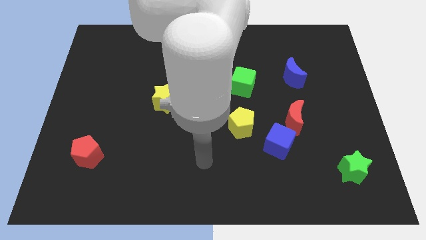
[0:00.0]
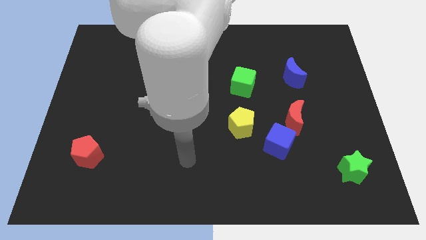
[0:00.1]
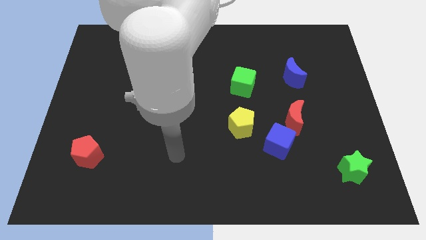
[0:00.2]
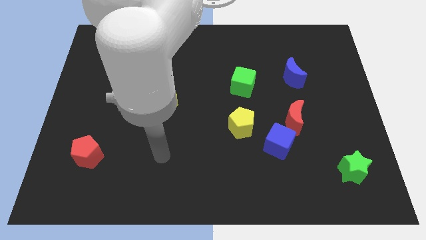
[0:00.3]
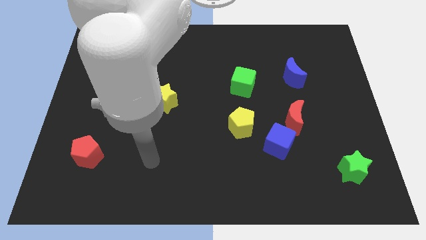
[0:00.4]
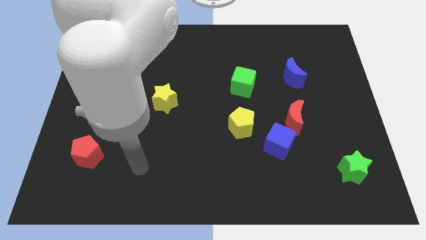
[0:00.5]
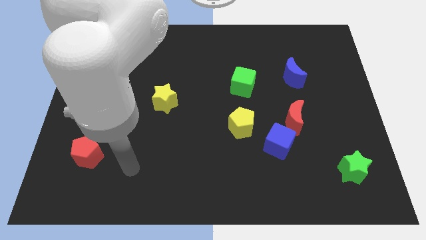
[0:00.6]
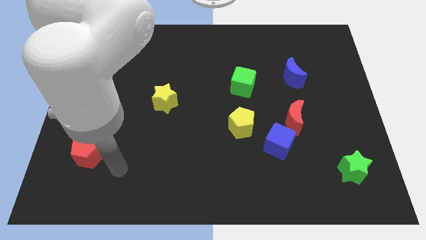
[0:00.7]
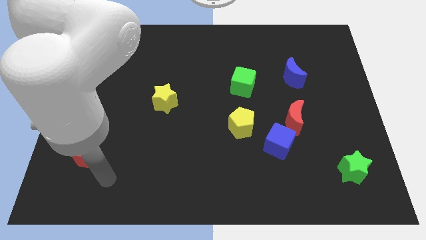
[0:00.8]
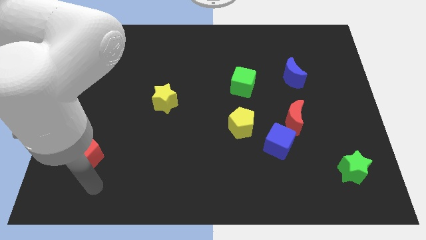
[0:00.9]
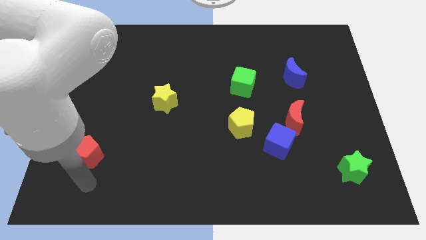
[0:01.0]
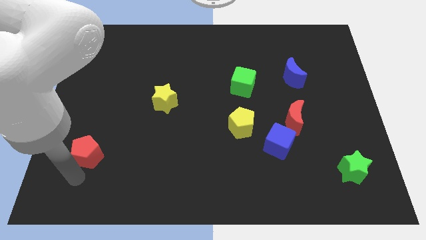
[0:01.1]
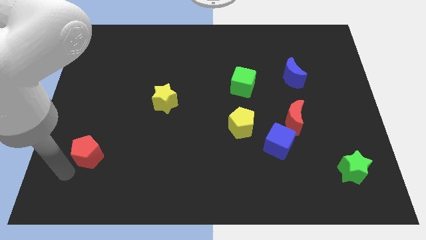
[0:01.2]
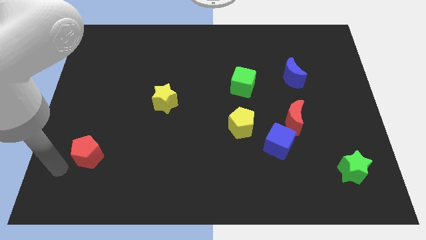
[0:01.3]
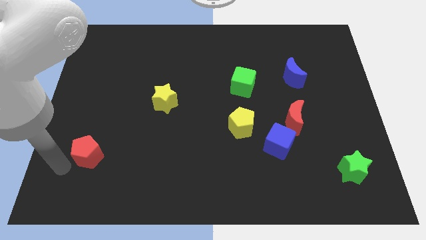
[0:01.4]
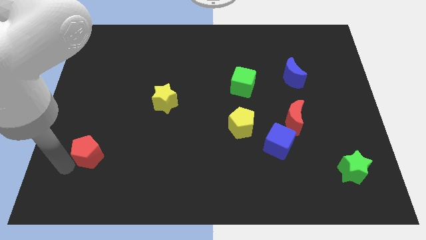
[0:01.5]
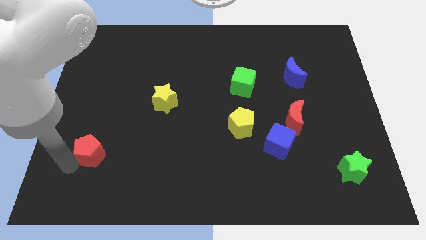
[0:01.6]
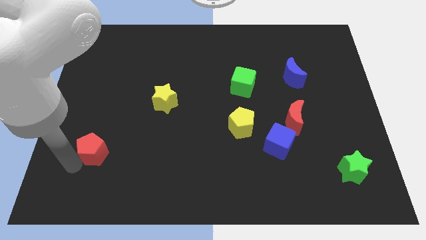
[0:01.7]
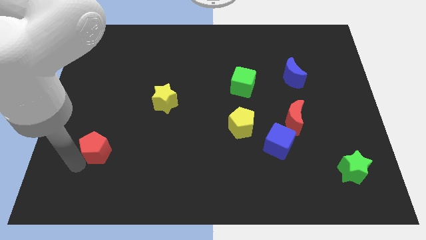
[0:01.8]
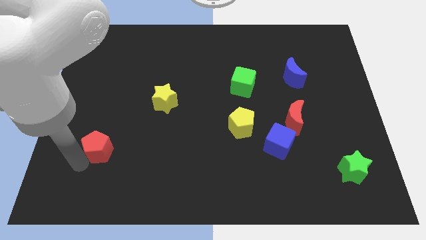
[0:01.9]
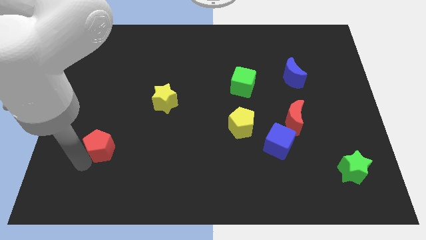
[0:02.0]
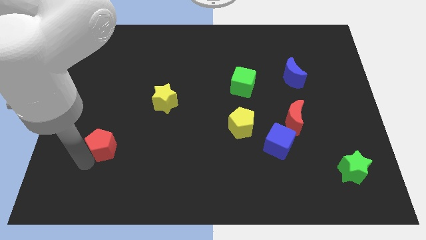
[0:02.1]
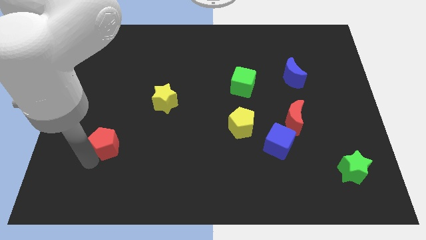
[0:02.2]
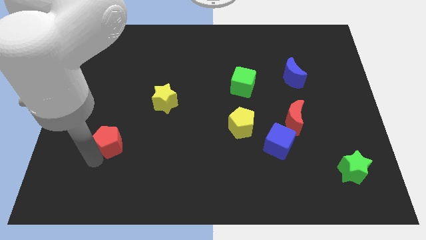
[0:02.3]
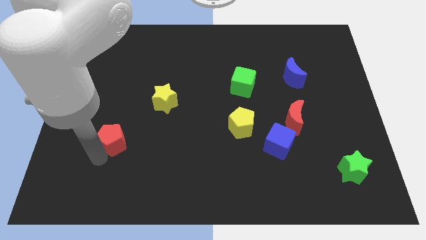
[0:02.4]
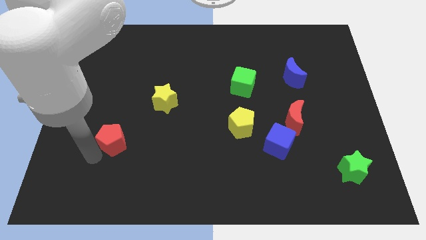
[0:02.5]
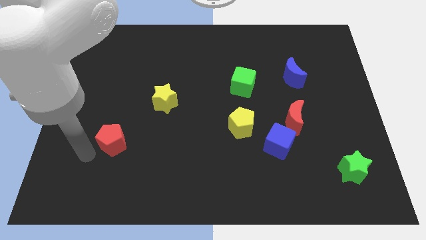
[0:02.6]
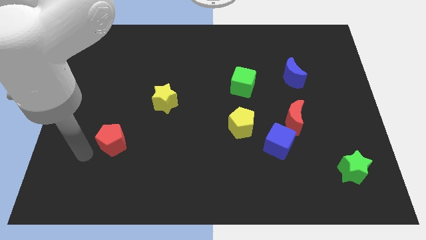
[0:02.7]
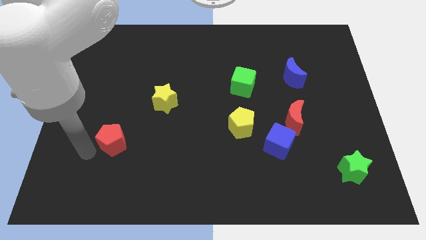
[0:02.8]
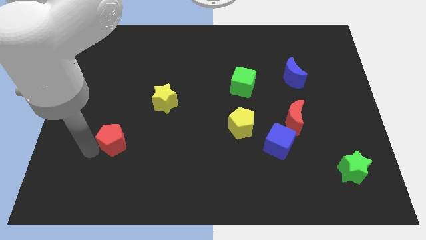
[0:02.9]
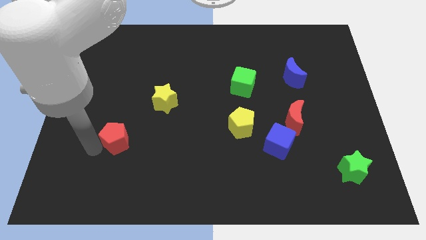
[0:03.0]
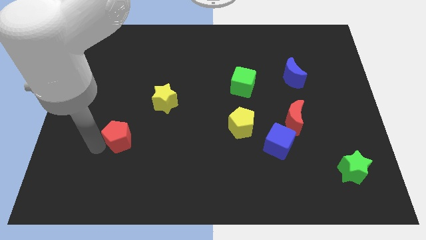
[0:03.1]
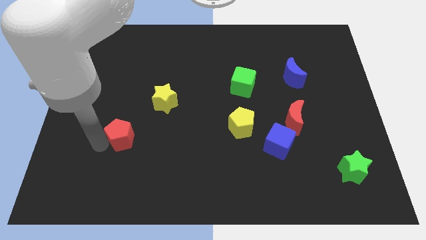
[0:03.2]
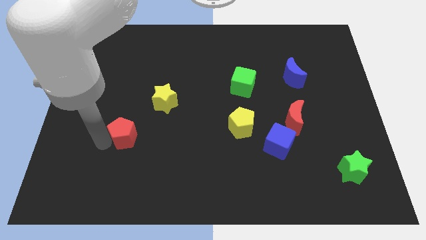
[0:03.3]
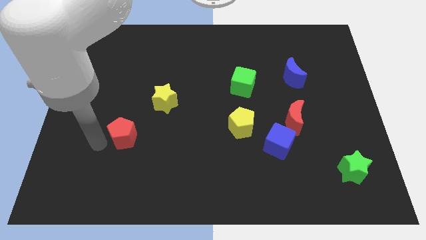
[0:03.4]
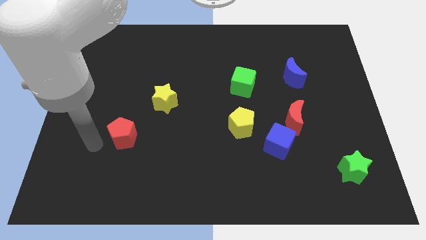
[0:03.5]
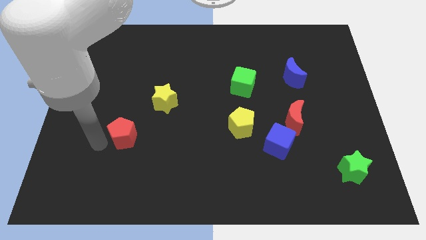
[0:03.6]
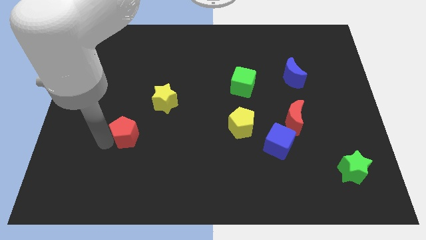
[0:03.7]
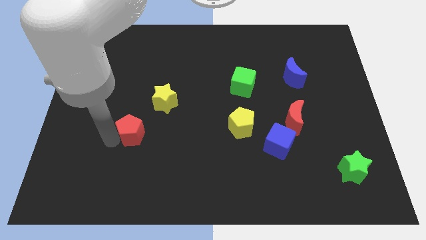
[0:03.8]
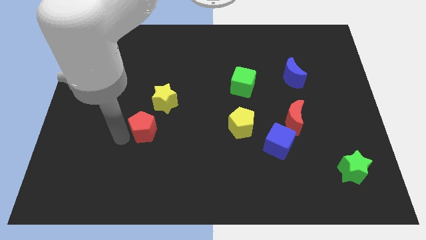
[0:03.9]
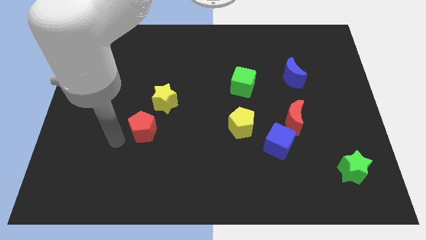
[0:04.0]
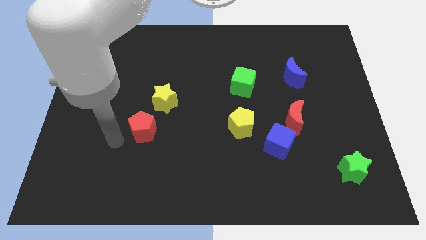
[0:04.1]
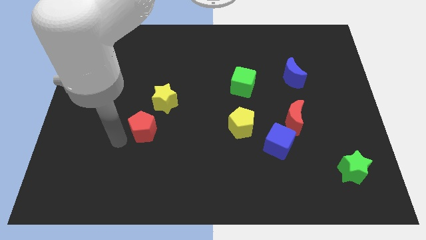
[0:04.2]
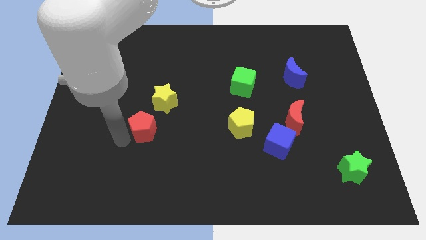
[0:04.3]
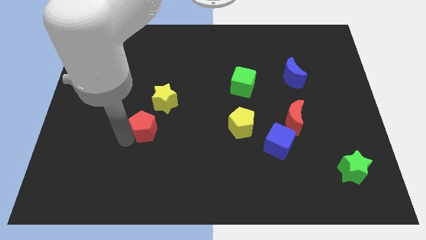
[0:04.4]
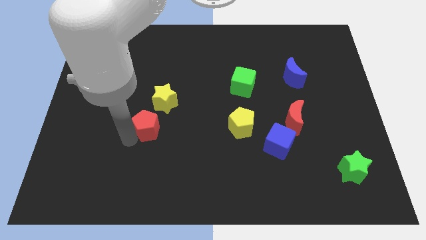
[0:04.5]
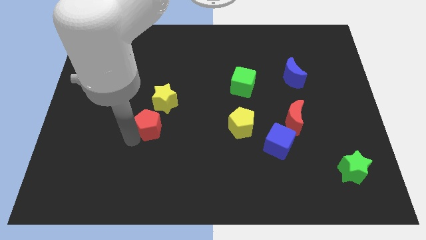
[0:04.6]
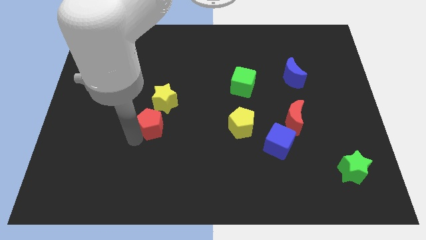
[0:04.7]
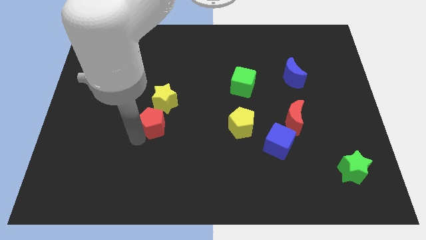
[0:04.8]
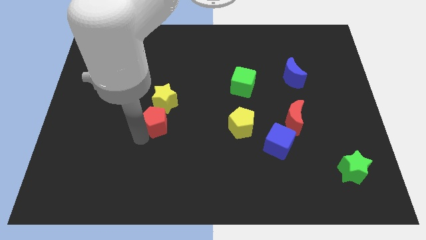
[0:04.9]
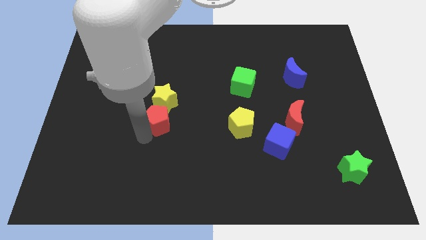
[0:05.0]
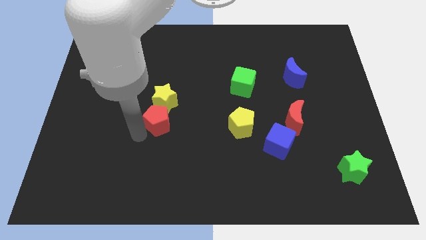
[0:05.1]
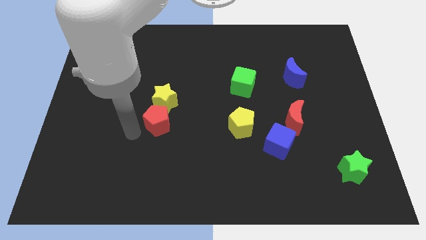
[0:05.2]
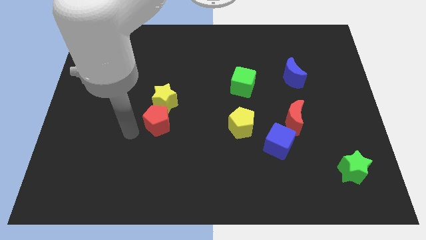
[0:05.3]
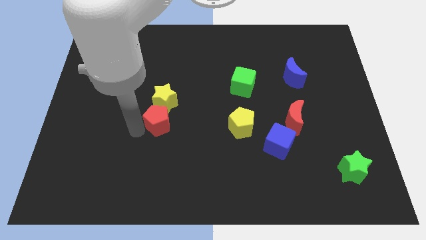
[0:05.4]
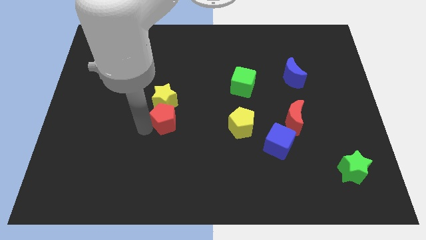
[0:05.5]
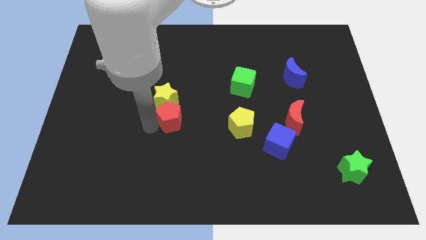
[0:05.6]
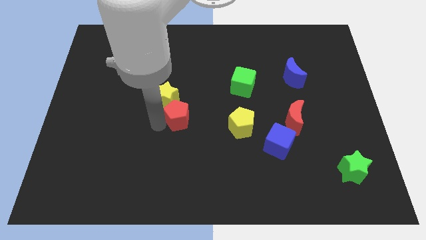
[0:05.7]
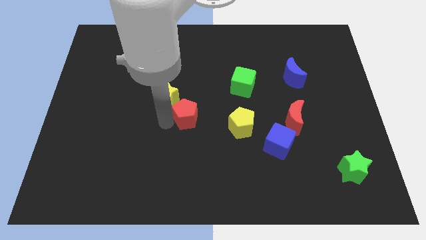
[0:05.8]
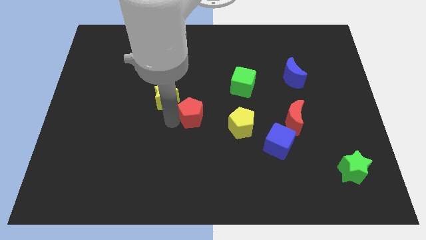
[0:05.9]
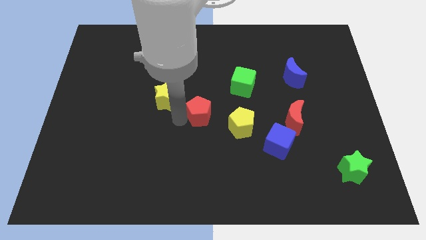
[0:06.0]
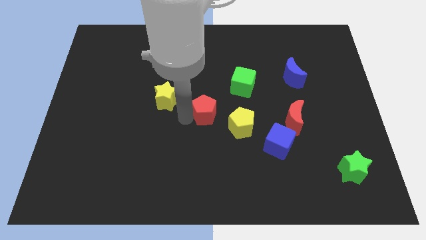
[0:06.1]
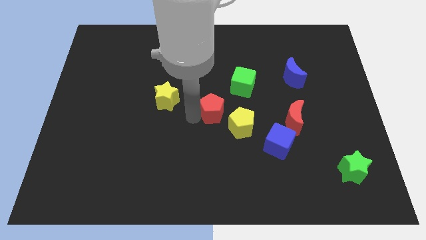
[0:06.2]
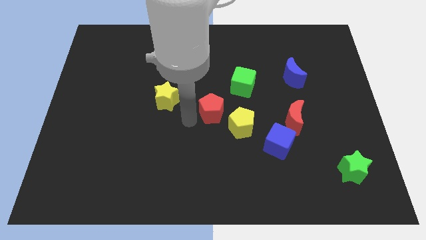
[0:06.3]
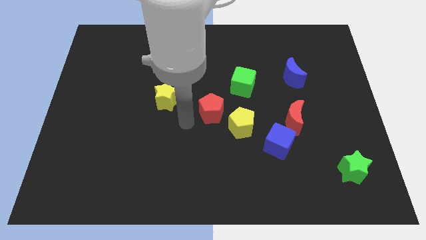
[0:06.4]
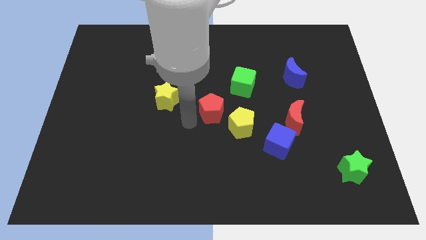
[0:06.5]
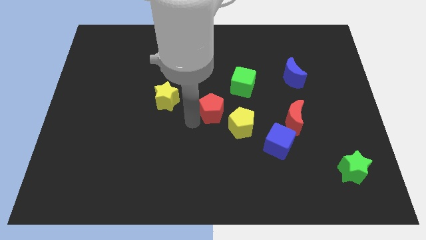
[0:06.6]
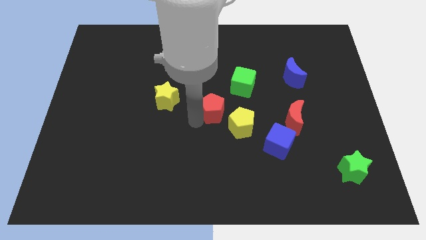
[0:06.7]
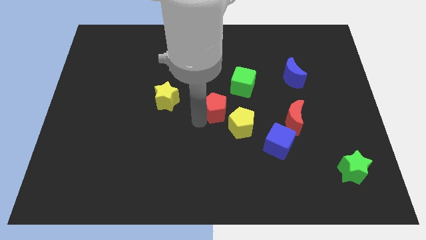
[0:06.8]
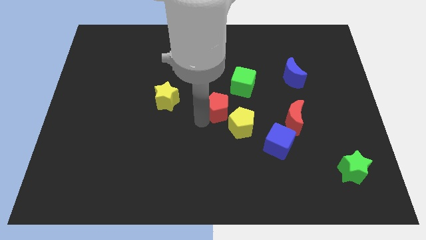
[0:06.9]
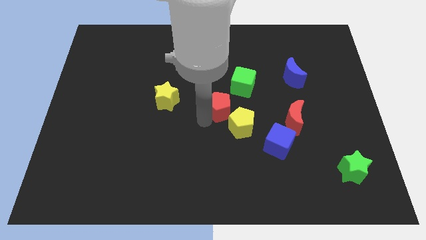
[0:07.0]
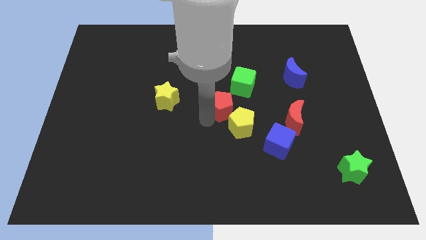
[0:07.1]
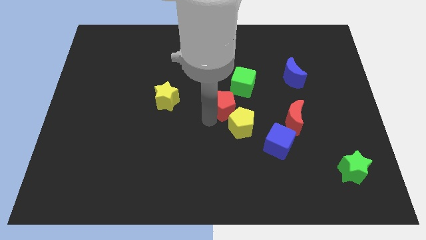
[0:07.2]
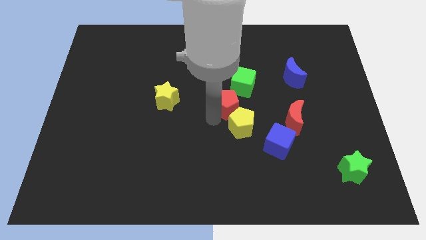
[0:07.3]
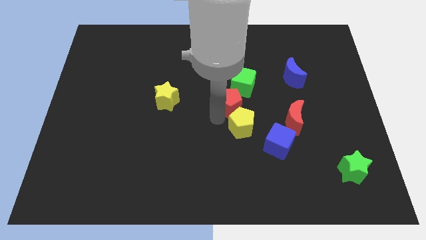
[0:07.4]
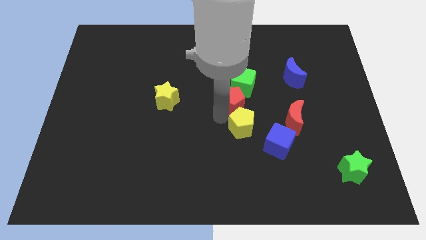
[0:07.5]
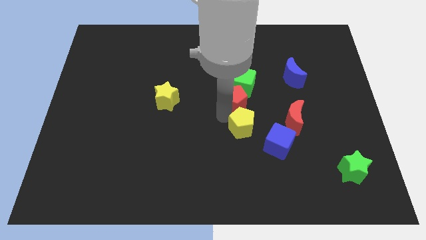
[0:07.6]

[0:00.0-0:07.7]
move the red pentagon to the green cube
